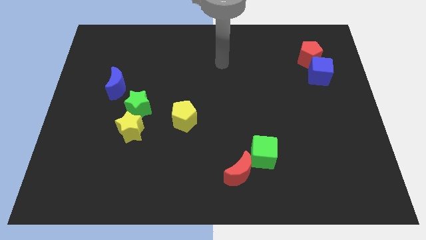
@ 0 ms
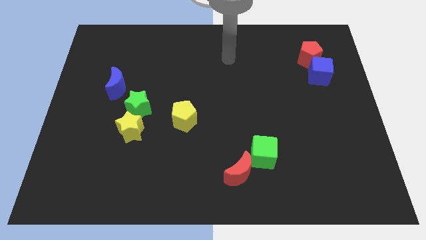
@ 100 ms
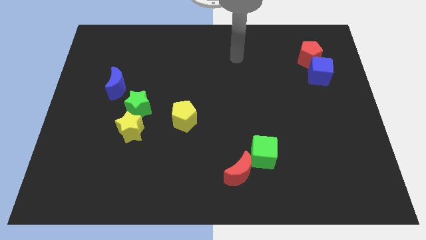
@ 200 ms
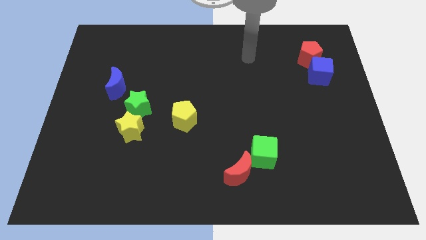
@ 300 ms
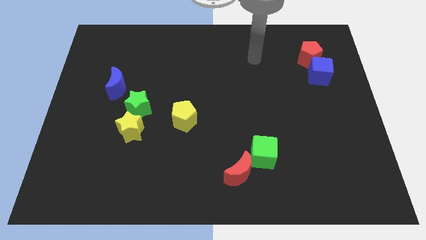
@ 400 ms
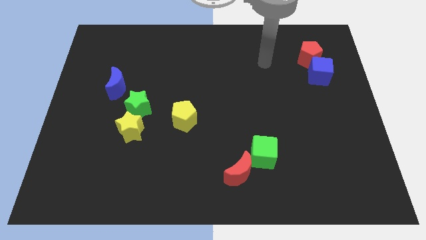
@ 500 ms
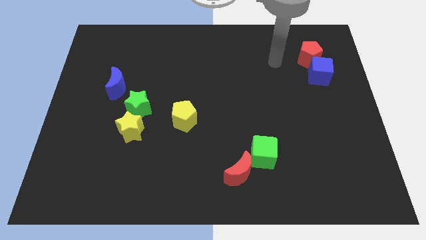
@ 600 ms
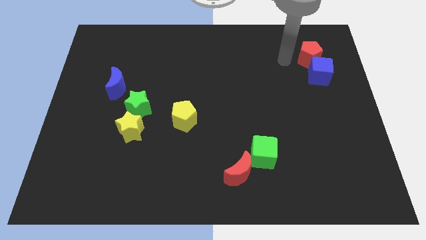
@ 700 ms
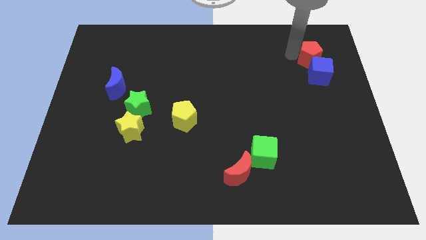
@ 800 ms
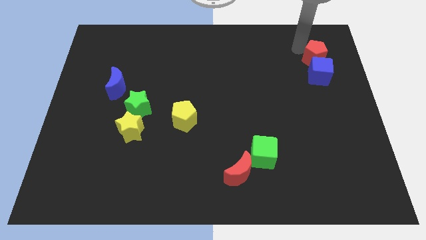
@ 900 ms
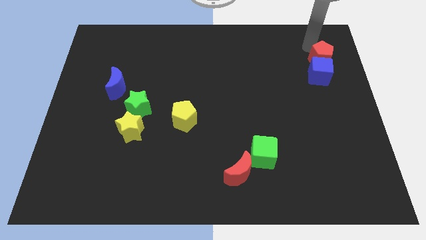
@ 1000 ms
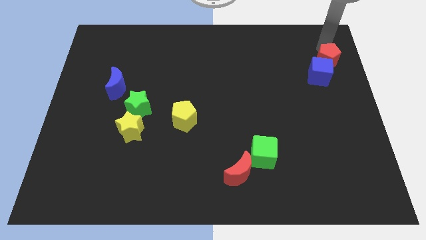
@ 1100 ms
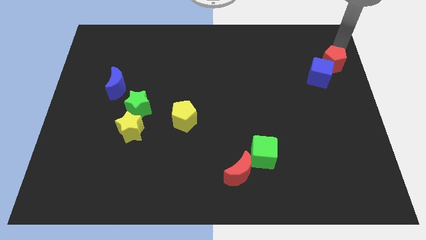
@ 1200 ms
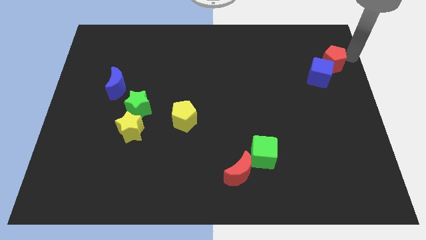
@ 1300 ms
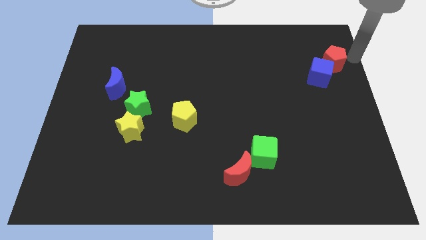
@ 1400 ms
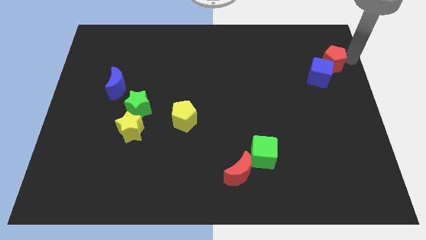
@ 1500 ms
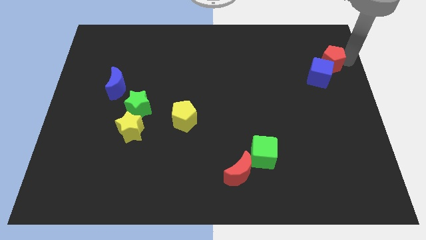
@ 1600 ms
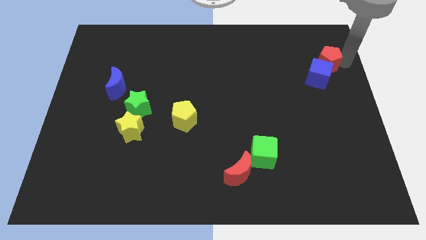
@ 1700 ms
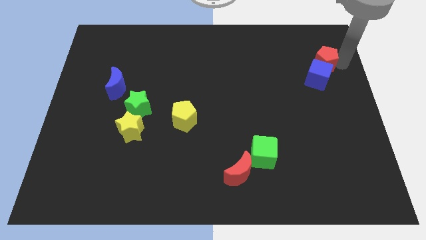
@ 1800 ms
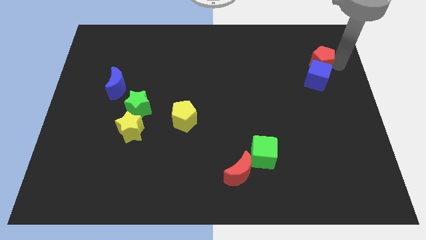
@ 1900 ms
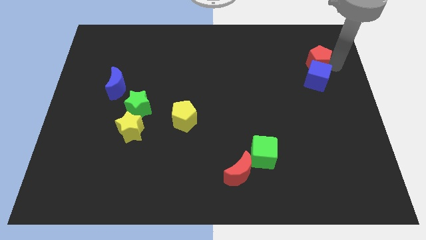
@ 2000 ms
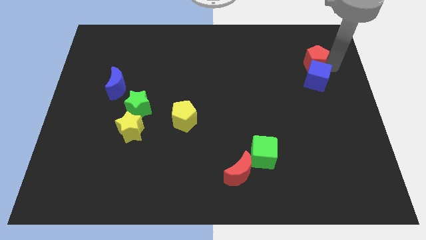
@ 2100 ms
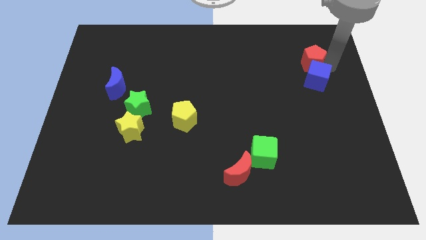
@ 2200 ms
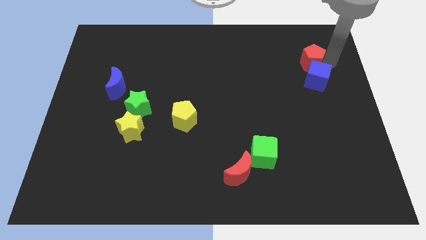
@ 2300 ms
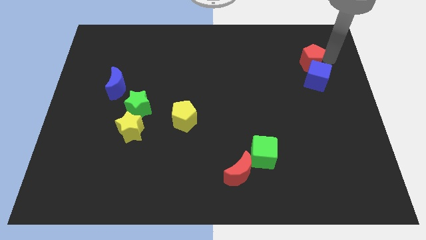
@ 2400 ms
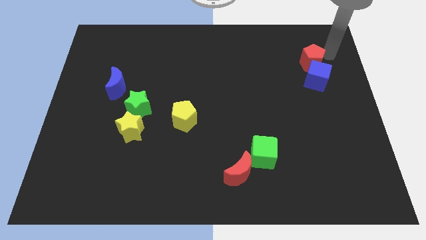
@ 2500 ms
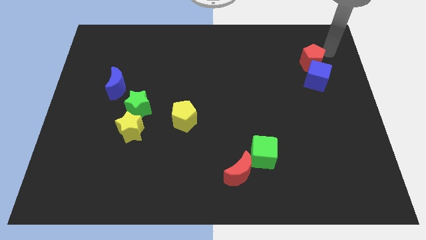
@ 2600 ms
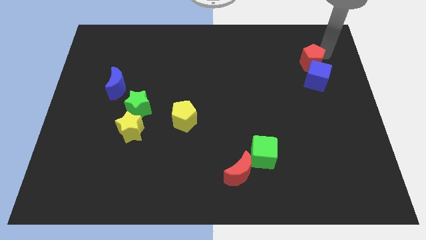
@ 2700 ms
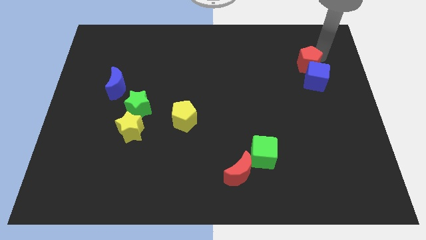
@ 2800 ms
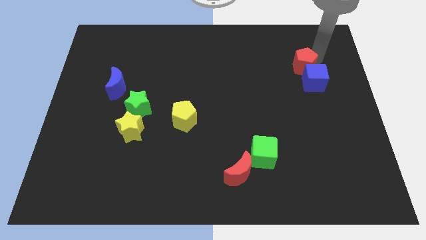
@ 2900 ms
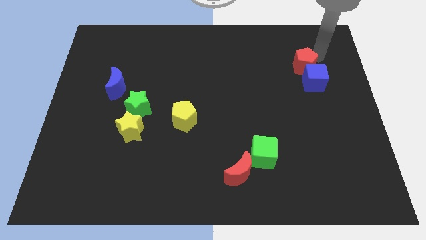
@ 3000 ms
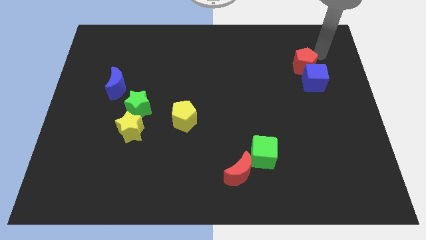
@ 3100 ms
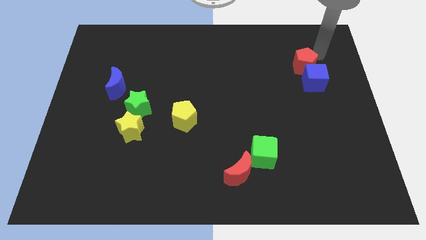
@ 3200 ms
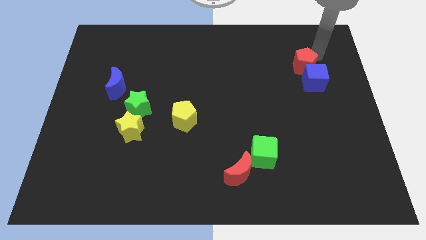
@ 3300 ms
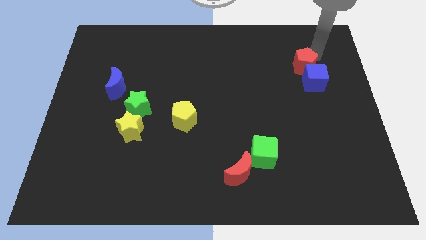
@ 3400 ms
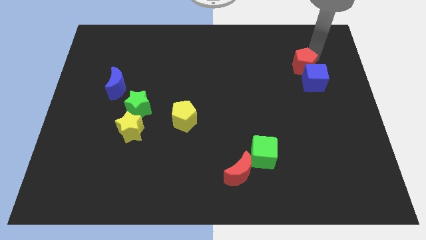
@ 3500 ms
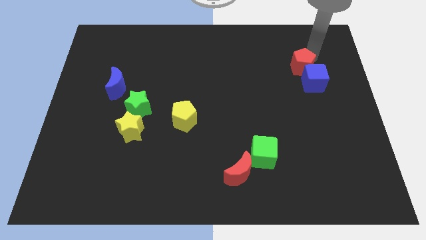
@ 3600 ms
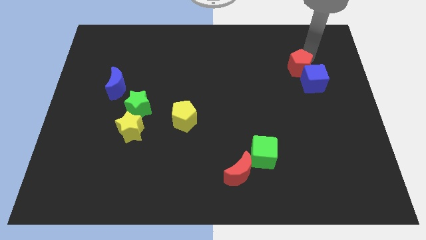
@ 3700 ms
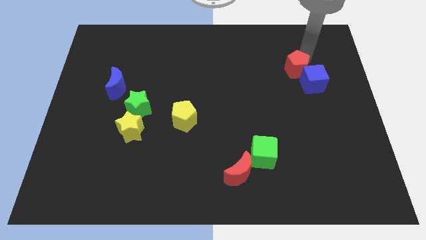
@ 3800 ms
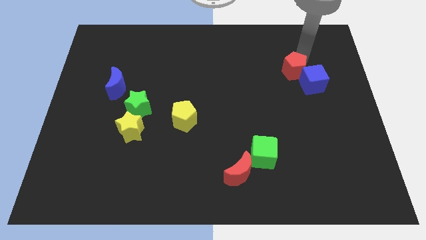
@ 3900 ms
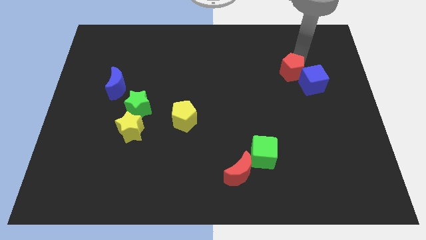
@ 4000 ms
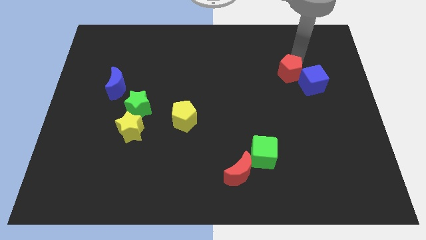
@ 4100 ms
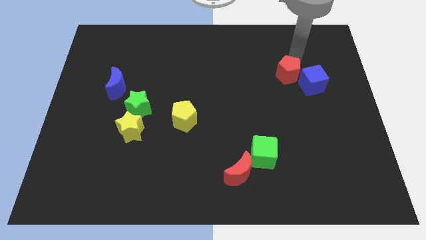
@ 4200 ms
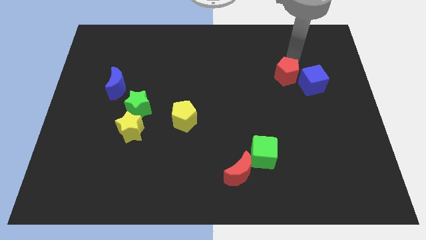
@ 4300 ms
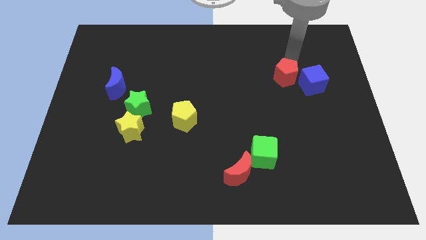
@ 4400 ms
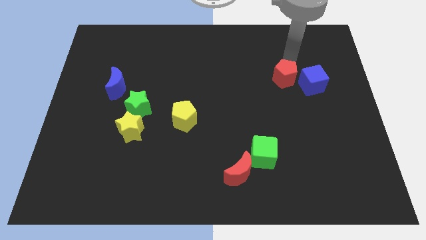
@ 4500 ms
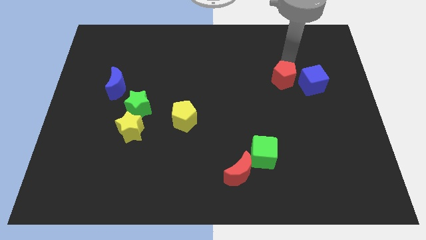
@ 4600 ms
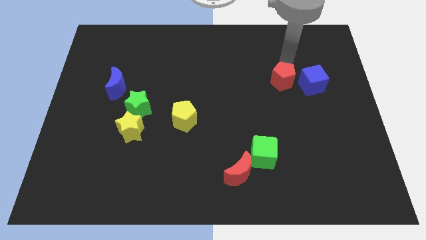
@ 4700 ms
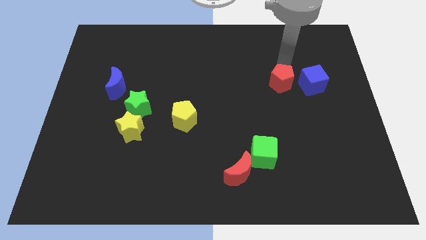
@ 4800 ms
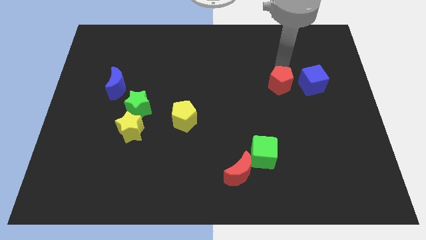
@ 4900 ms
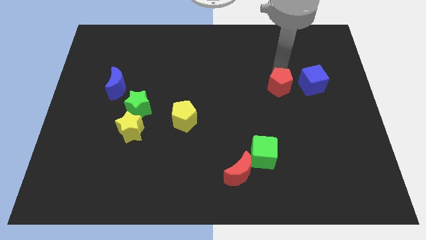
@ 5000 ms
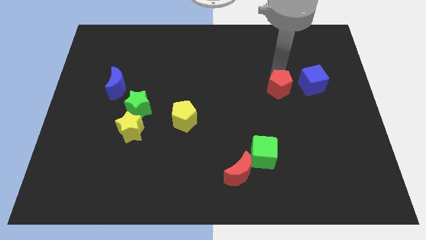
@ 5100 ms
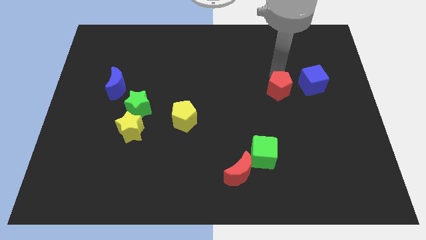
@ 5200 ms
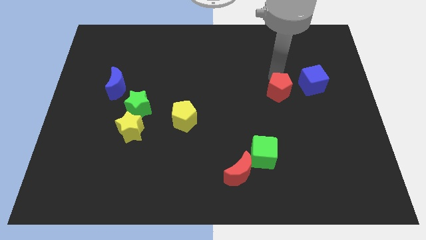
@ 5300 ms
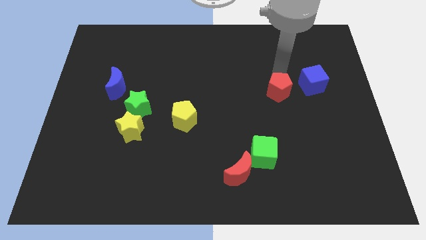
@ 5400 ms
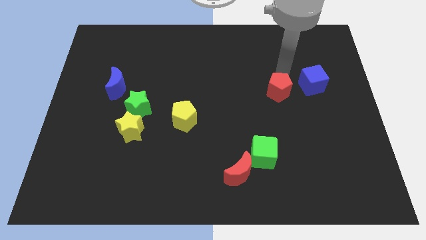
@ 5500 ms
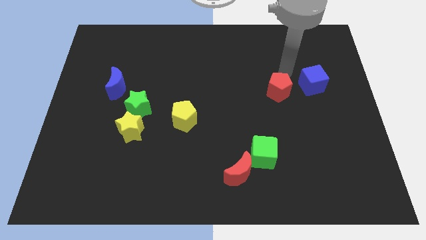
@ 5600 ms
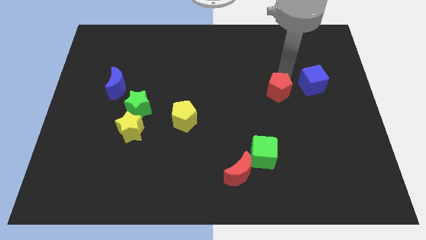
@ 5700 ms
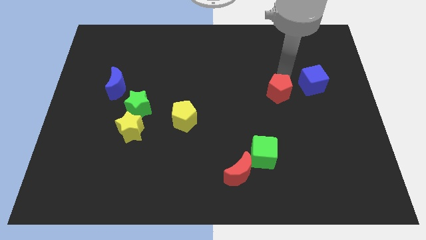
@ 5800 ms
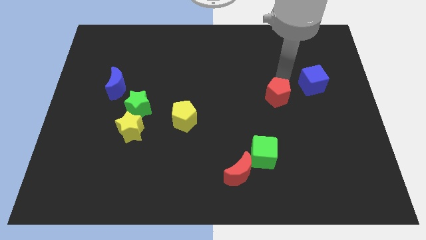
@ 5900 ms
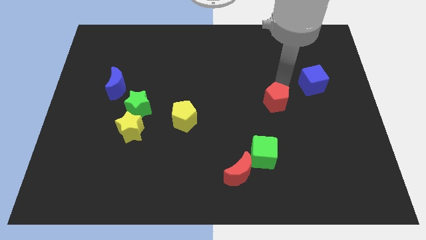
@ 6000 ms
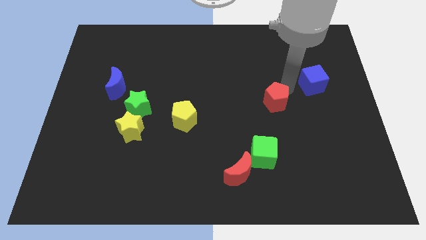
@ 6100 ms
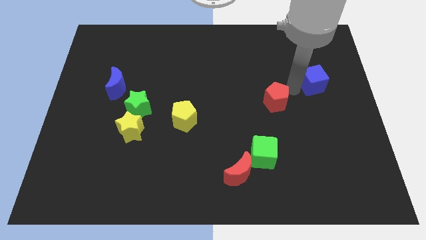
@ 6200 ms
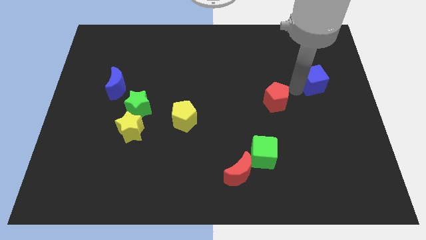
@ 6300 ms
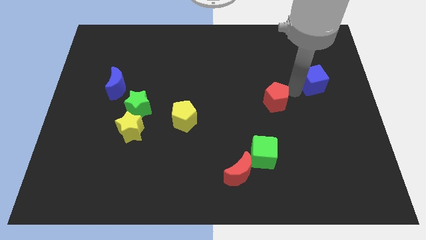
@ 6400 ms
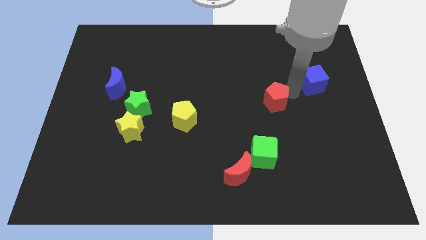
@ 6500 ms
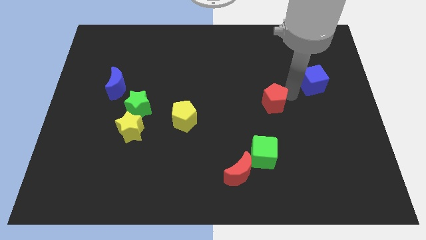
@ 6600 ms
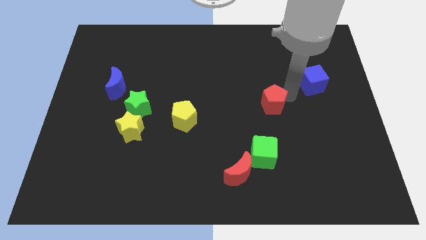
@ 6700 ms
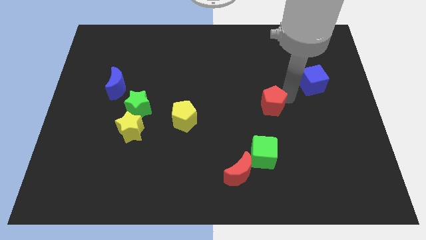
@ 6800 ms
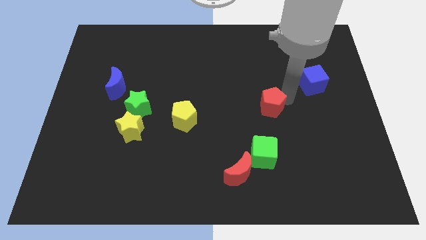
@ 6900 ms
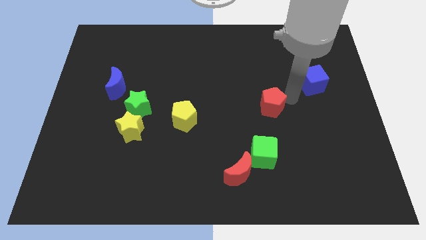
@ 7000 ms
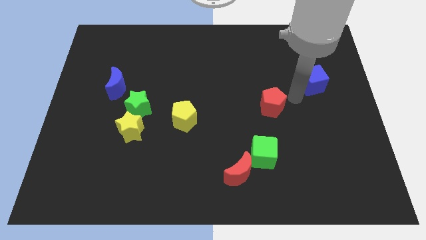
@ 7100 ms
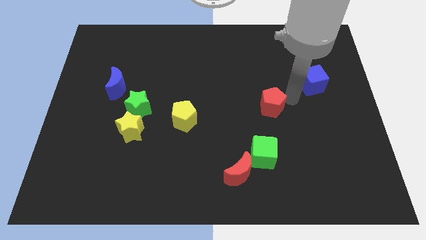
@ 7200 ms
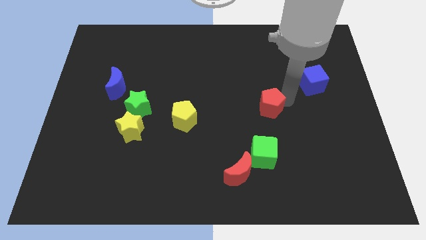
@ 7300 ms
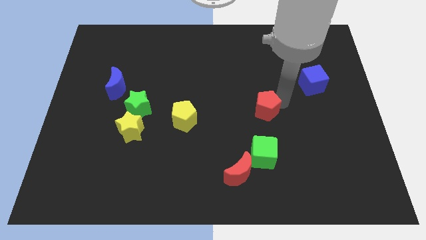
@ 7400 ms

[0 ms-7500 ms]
slide the red pentagon down and left diagonally
